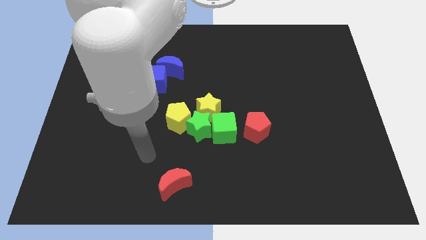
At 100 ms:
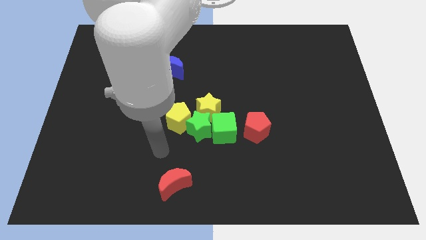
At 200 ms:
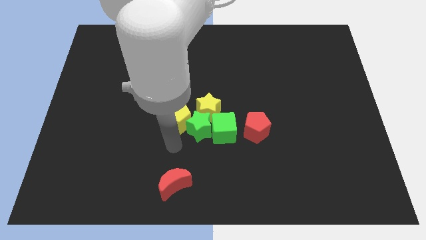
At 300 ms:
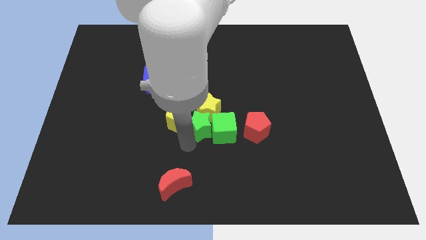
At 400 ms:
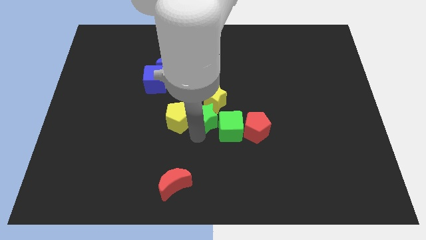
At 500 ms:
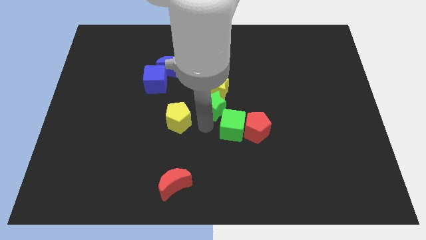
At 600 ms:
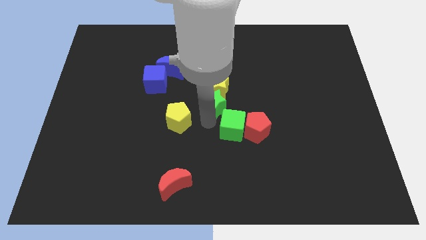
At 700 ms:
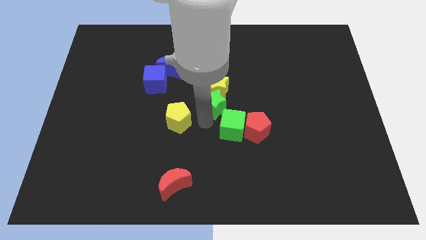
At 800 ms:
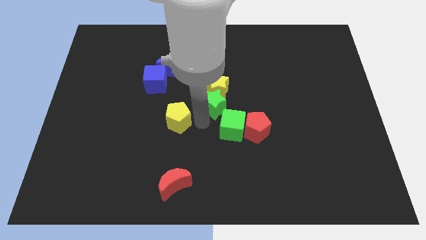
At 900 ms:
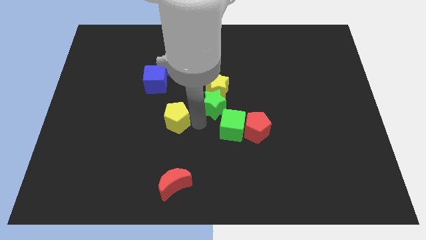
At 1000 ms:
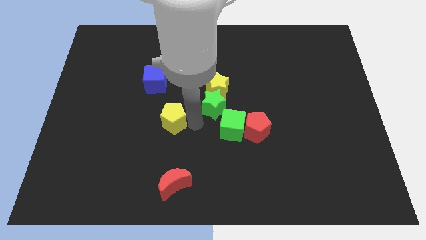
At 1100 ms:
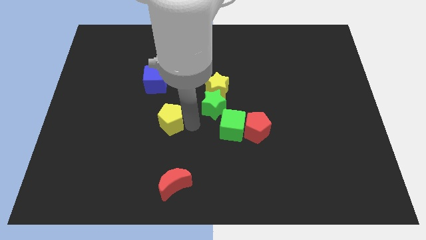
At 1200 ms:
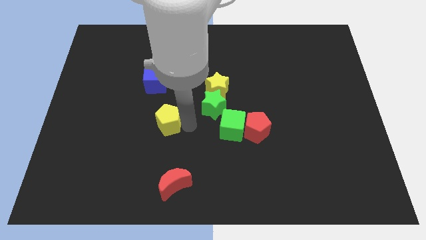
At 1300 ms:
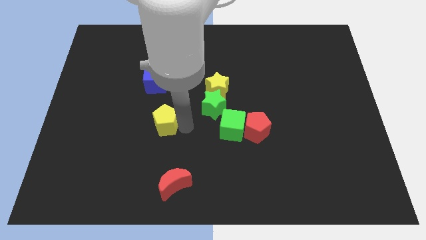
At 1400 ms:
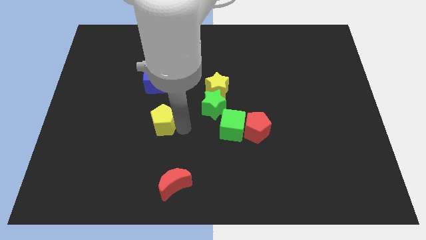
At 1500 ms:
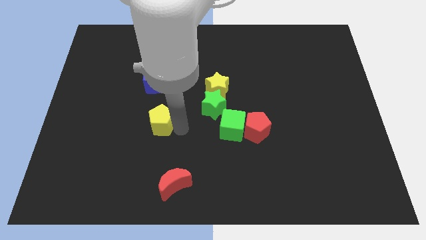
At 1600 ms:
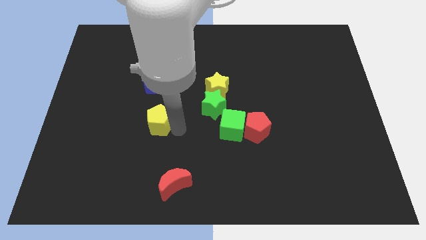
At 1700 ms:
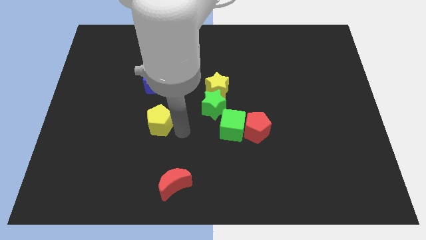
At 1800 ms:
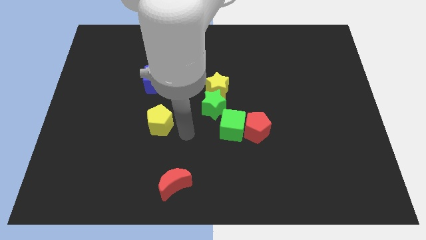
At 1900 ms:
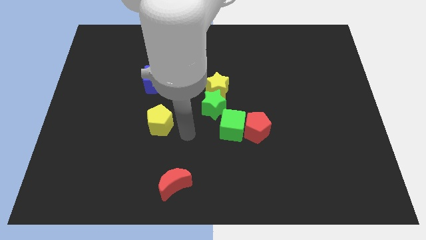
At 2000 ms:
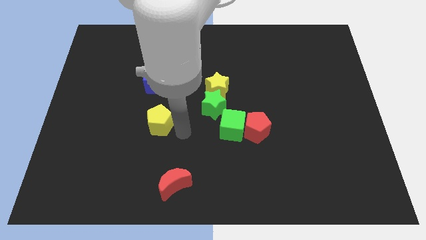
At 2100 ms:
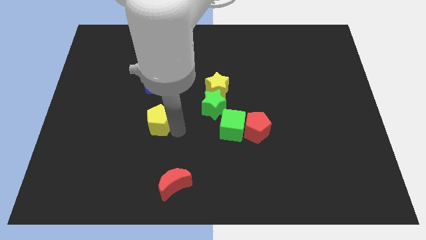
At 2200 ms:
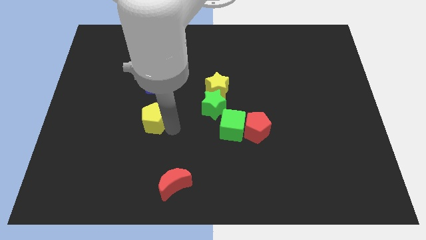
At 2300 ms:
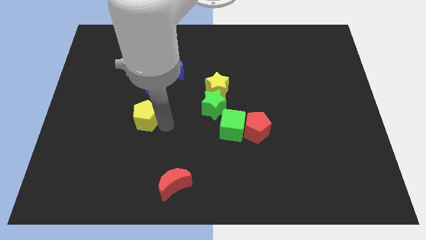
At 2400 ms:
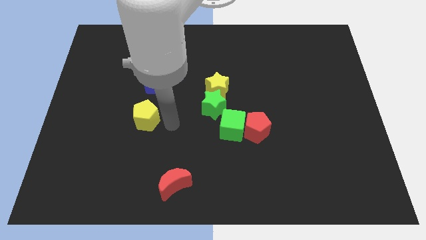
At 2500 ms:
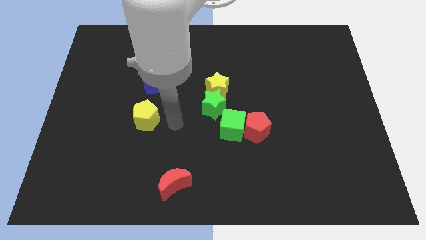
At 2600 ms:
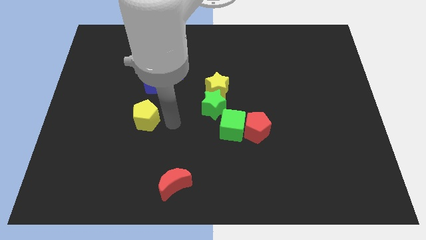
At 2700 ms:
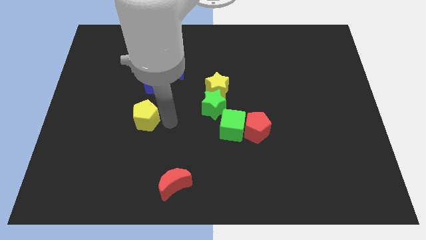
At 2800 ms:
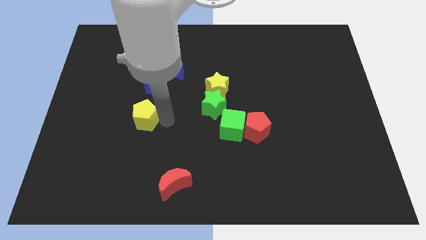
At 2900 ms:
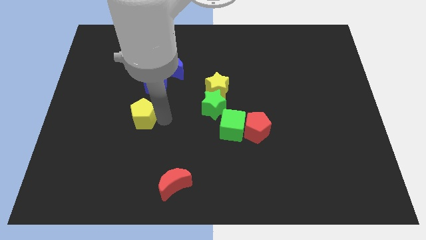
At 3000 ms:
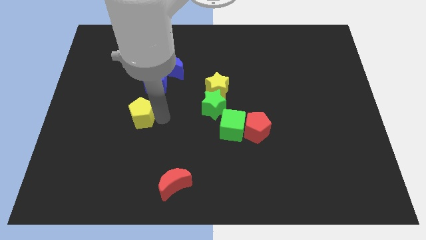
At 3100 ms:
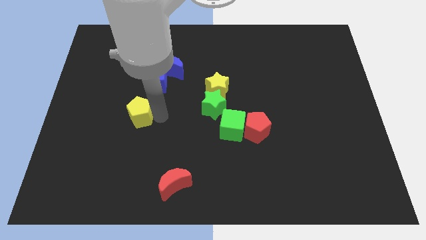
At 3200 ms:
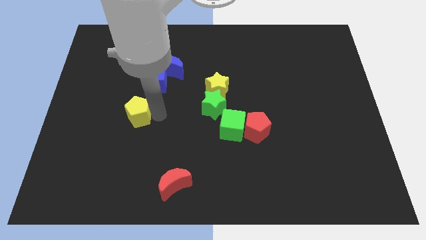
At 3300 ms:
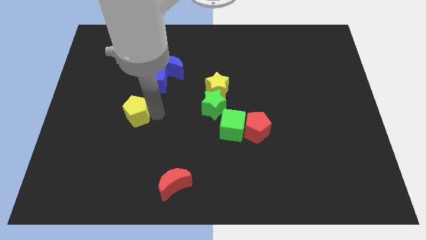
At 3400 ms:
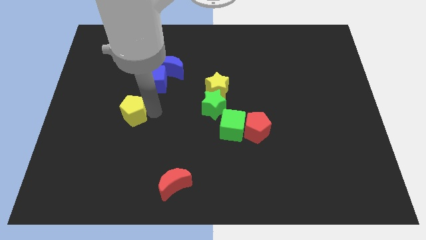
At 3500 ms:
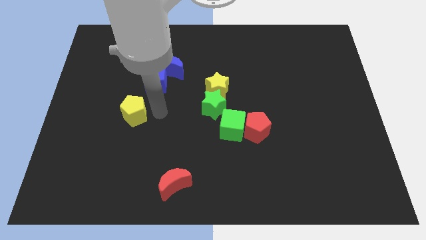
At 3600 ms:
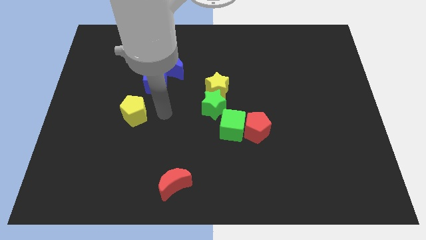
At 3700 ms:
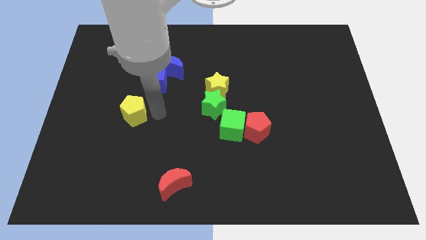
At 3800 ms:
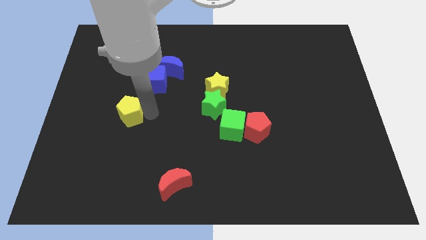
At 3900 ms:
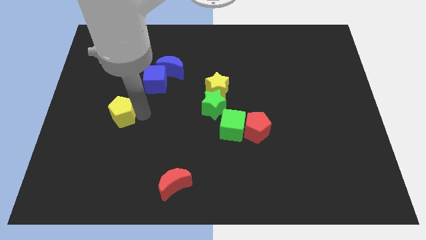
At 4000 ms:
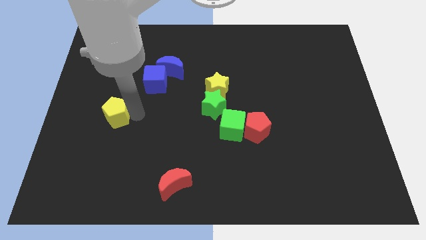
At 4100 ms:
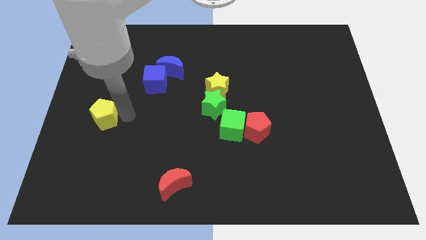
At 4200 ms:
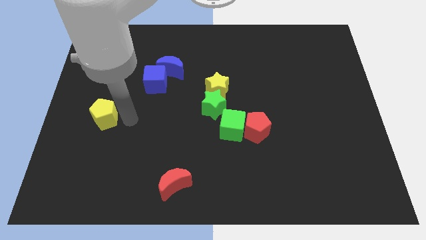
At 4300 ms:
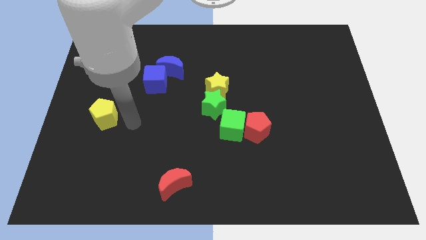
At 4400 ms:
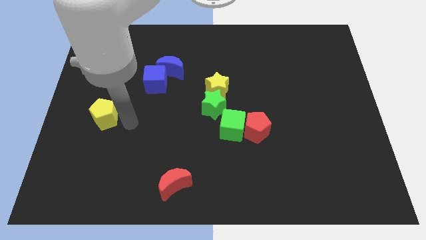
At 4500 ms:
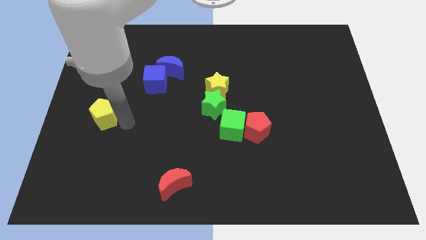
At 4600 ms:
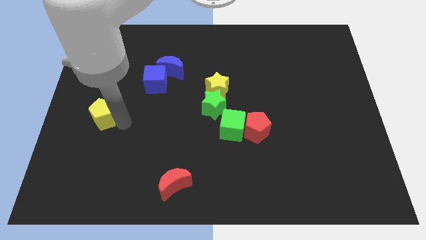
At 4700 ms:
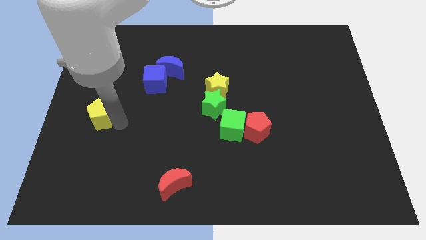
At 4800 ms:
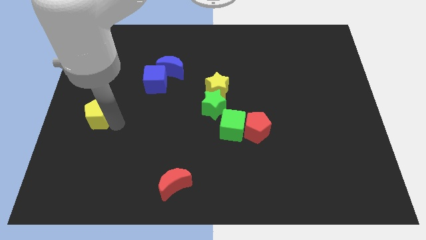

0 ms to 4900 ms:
put the yellow pentagon to the center left

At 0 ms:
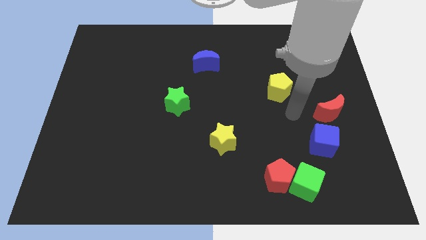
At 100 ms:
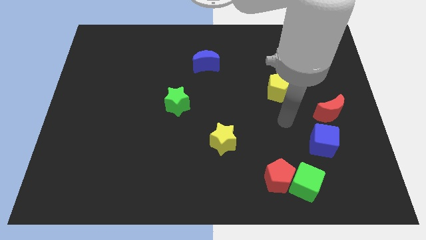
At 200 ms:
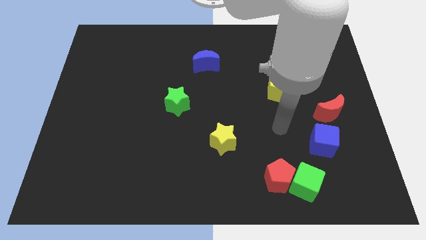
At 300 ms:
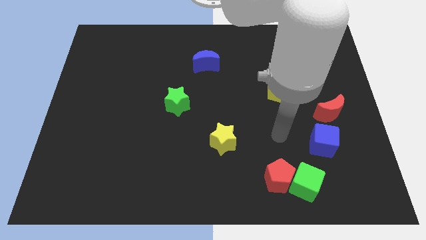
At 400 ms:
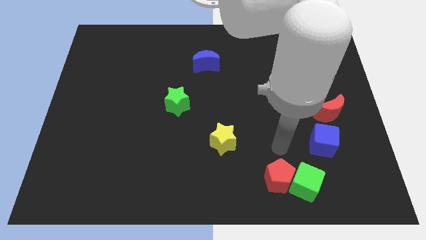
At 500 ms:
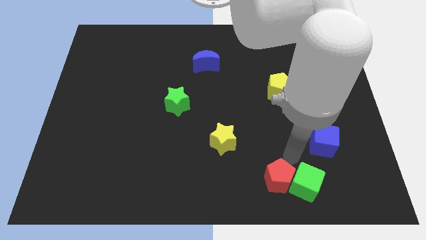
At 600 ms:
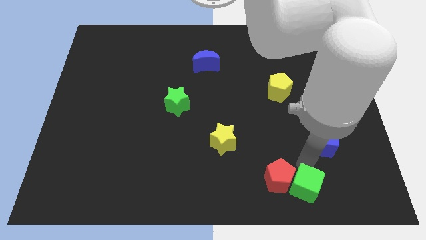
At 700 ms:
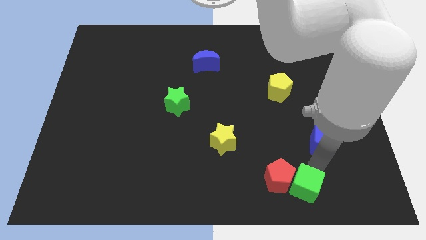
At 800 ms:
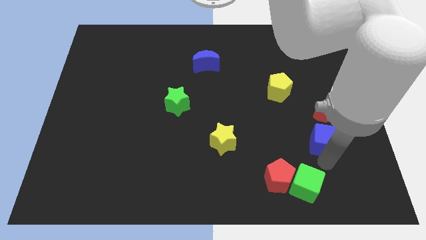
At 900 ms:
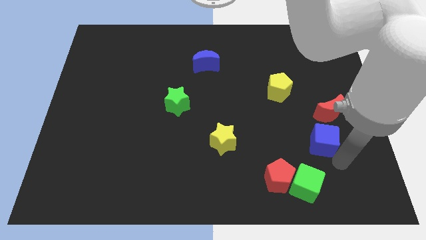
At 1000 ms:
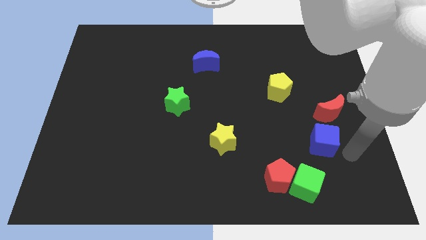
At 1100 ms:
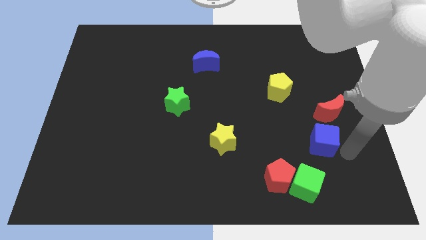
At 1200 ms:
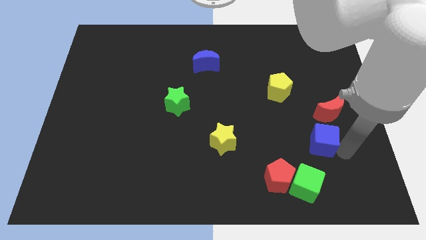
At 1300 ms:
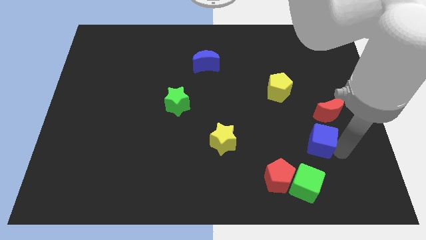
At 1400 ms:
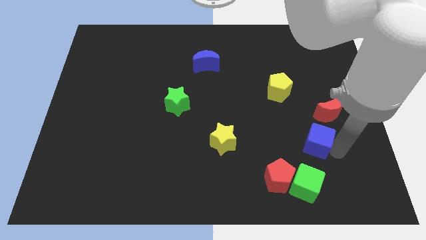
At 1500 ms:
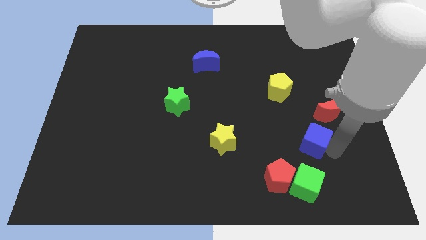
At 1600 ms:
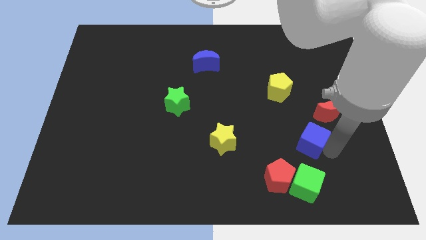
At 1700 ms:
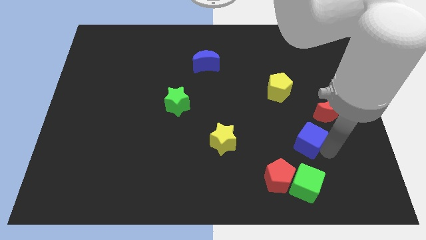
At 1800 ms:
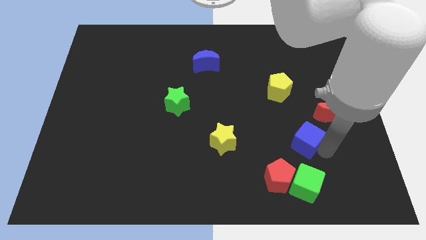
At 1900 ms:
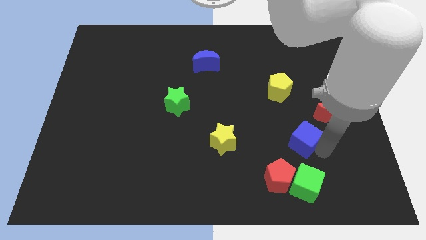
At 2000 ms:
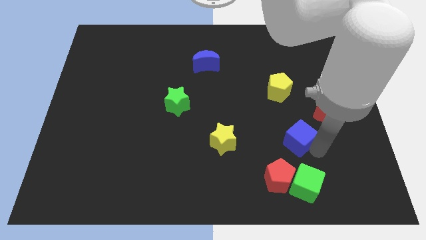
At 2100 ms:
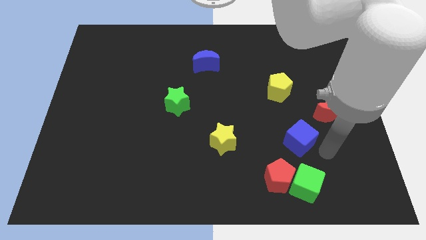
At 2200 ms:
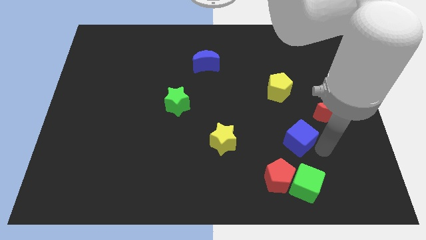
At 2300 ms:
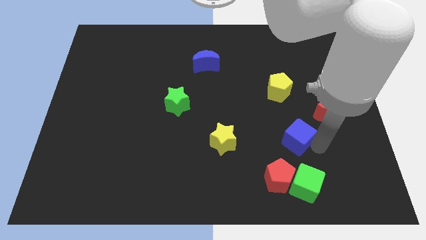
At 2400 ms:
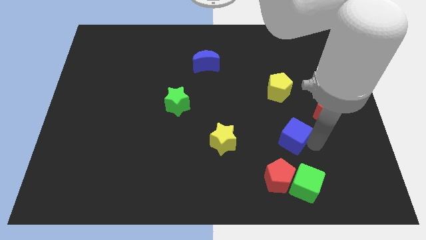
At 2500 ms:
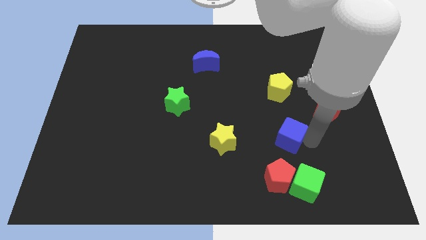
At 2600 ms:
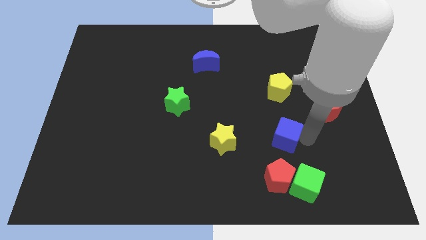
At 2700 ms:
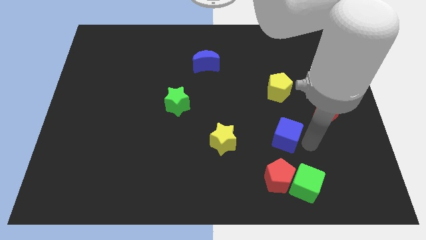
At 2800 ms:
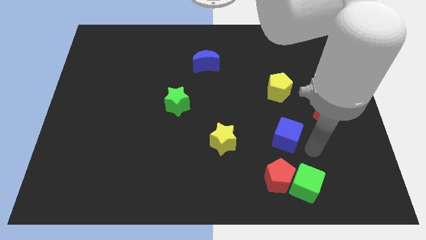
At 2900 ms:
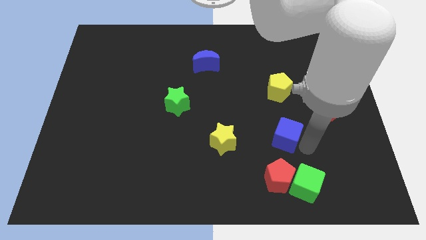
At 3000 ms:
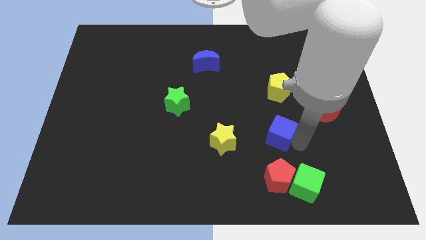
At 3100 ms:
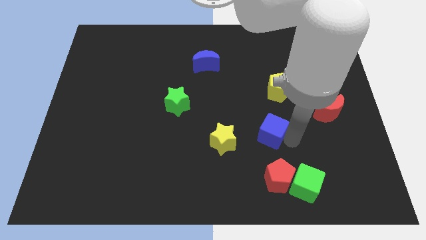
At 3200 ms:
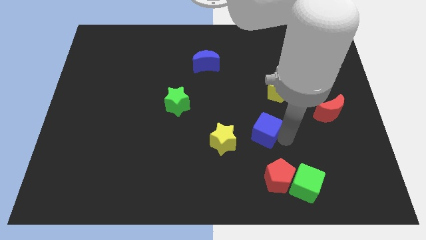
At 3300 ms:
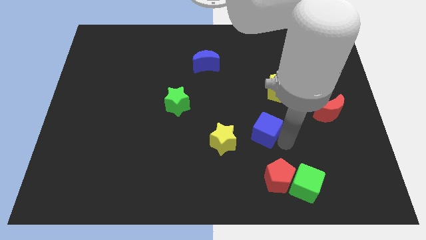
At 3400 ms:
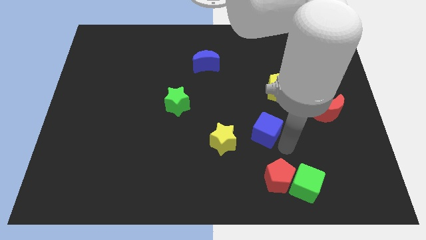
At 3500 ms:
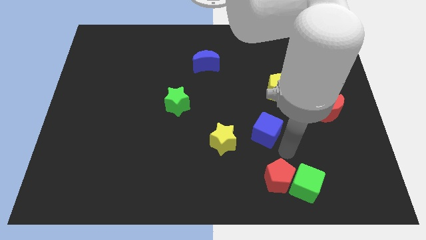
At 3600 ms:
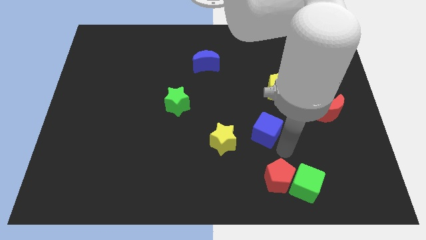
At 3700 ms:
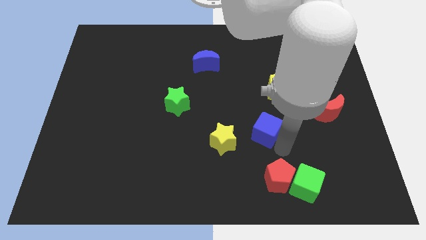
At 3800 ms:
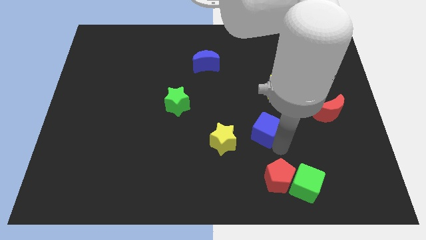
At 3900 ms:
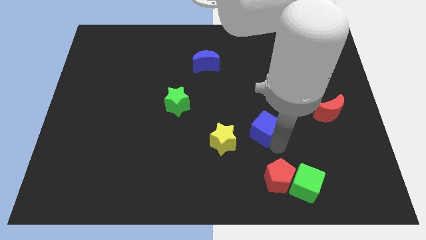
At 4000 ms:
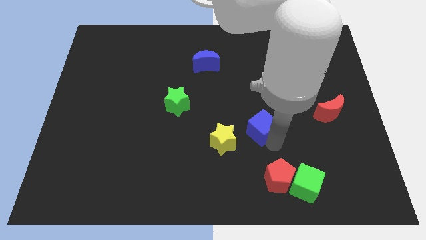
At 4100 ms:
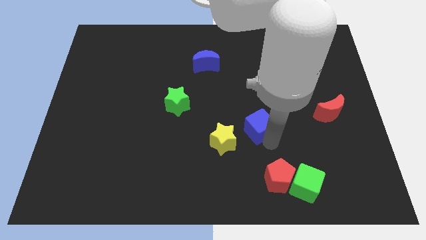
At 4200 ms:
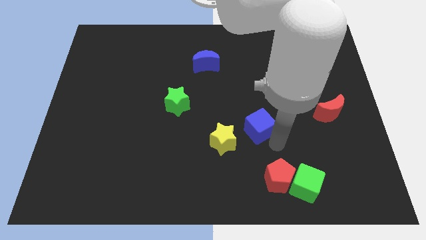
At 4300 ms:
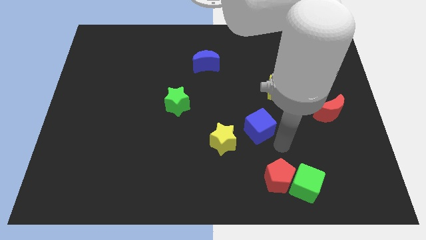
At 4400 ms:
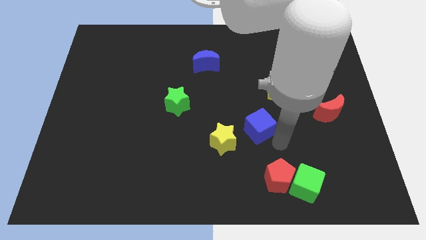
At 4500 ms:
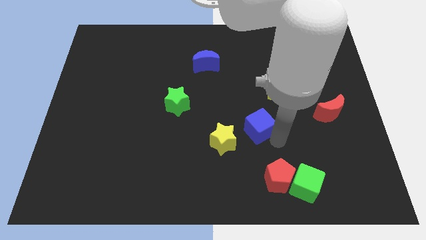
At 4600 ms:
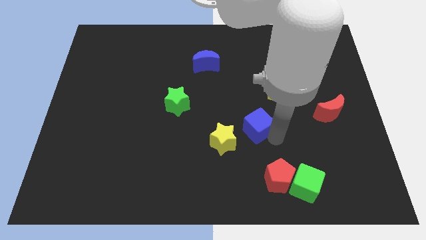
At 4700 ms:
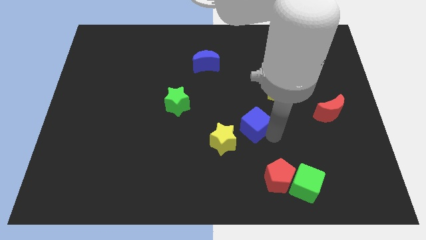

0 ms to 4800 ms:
push the blue cube to the middle
